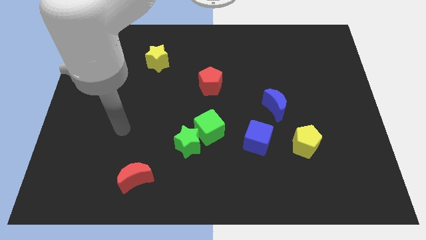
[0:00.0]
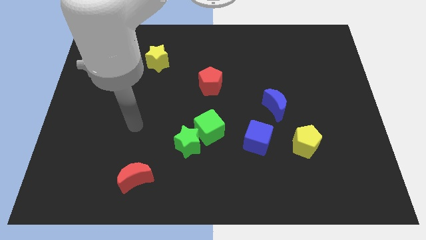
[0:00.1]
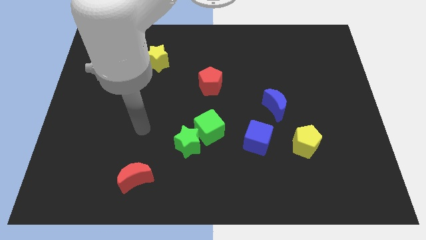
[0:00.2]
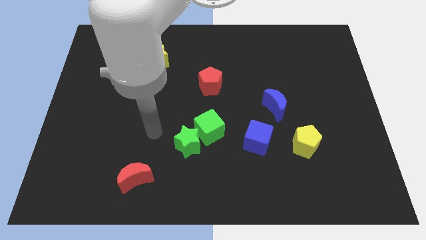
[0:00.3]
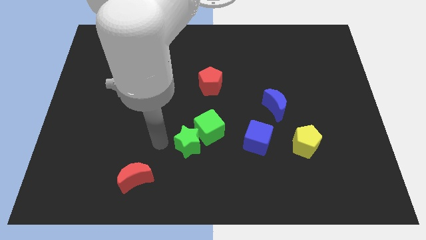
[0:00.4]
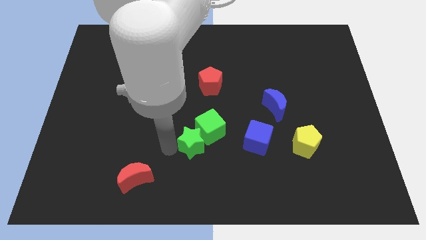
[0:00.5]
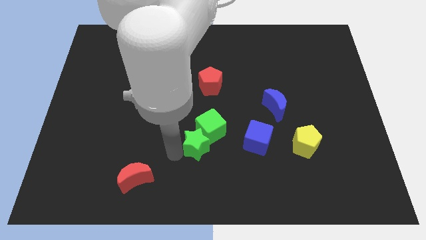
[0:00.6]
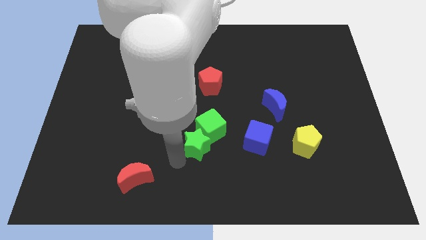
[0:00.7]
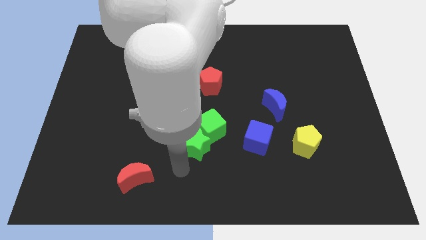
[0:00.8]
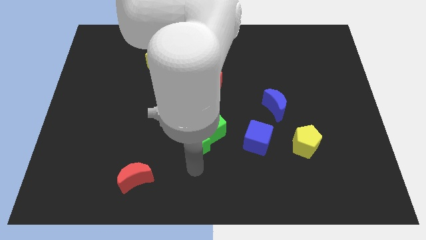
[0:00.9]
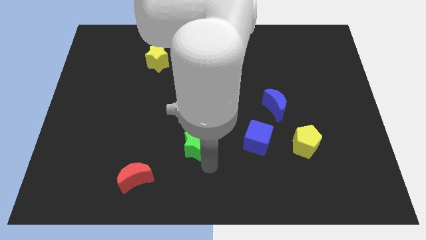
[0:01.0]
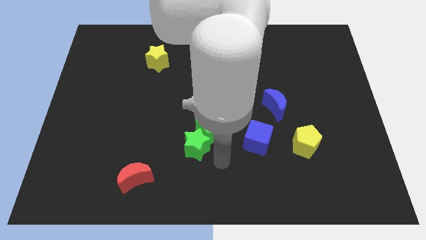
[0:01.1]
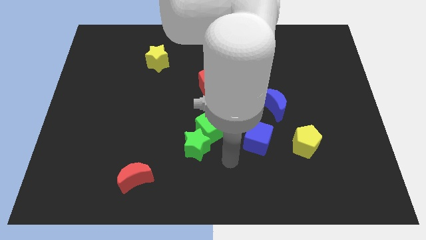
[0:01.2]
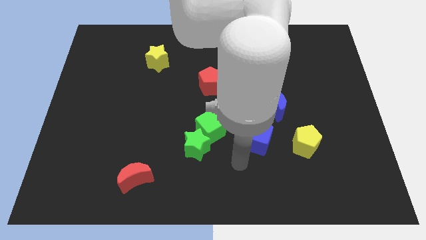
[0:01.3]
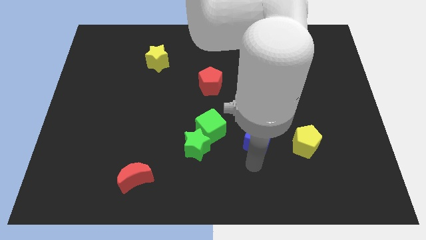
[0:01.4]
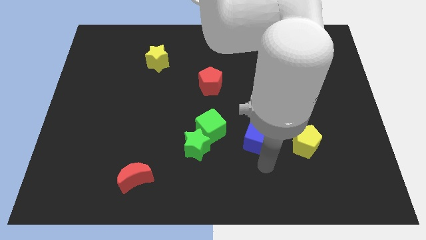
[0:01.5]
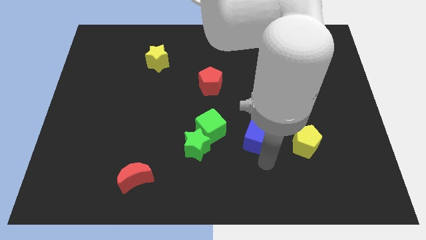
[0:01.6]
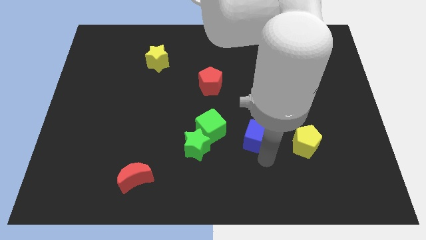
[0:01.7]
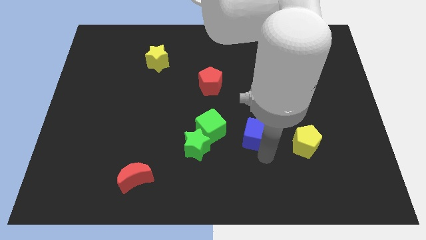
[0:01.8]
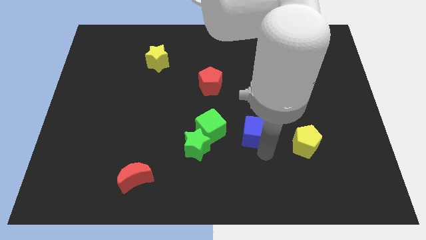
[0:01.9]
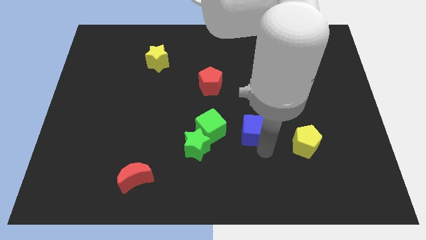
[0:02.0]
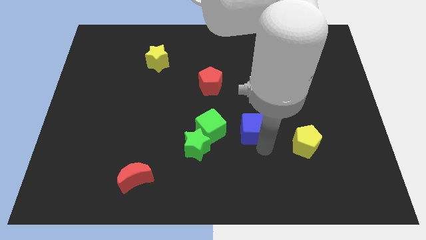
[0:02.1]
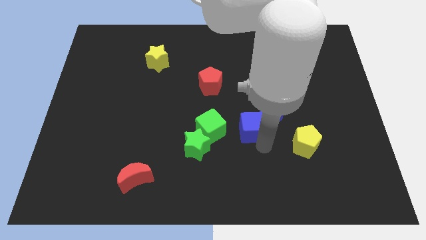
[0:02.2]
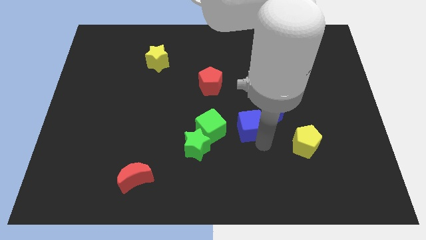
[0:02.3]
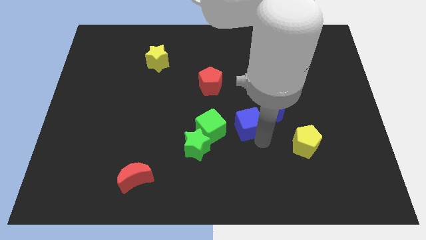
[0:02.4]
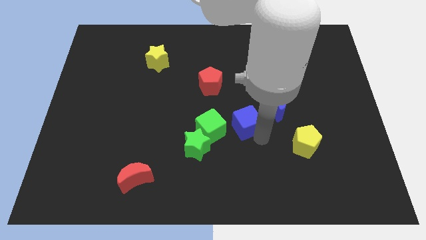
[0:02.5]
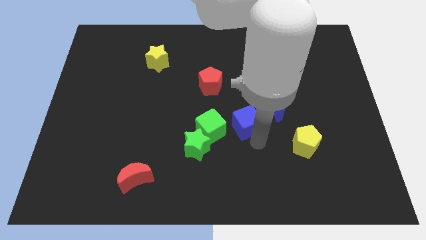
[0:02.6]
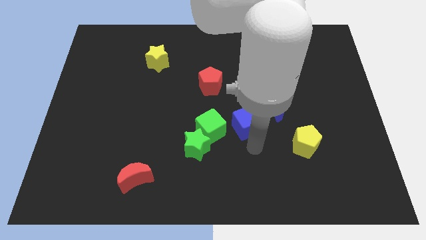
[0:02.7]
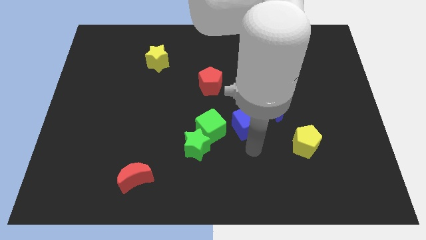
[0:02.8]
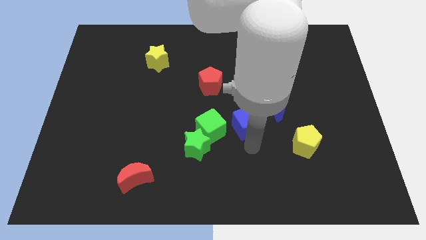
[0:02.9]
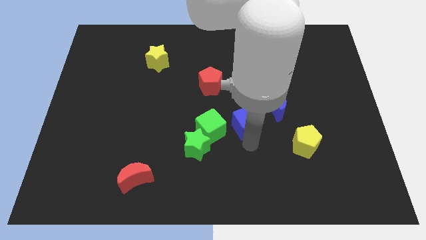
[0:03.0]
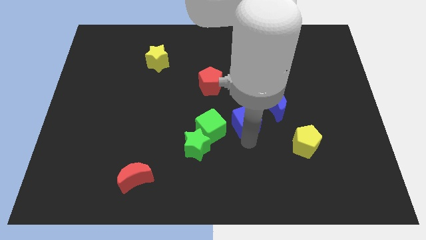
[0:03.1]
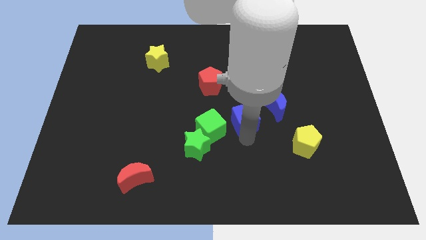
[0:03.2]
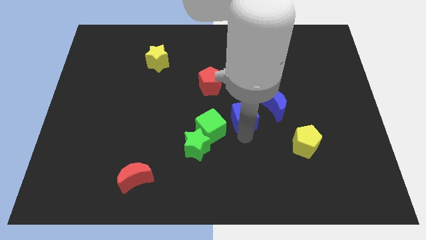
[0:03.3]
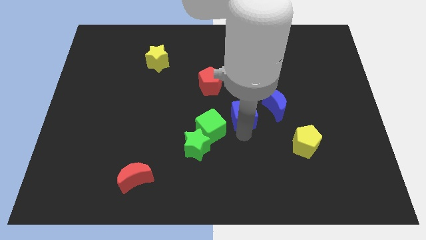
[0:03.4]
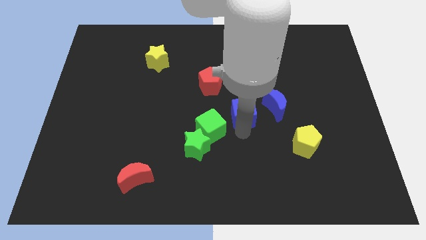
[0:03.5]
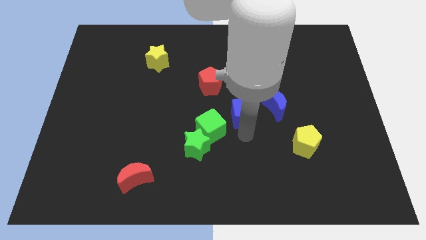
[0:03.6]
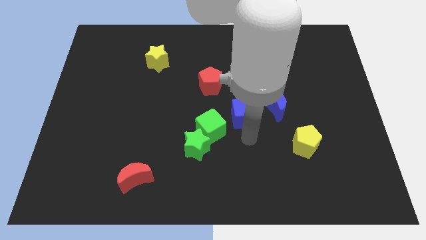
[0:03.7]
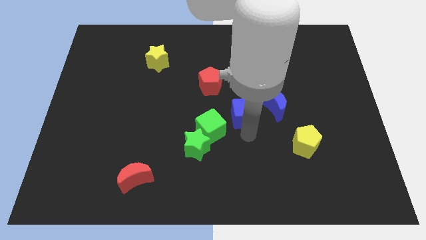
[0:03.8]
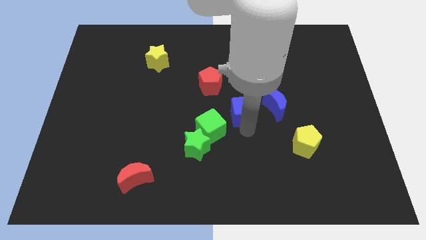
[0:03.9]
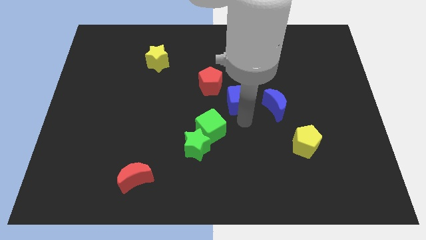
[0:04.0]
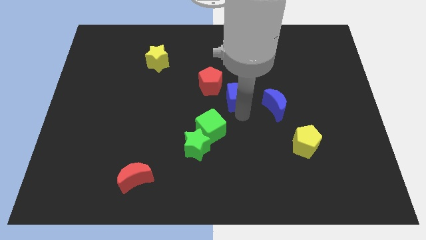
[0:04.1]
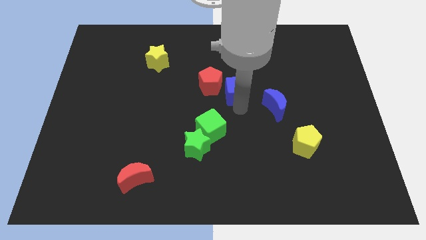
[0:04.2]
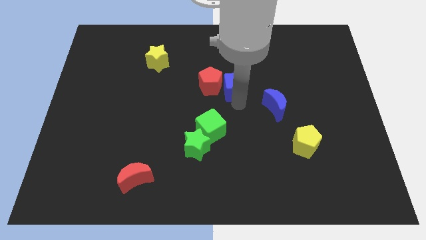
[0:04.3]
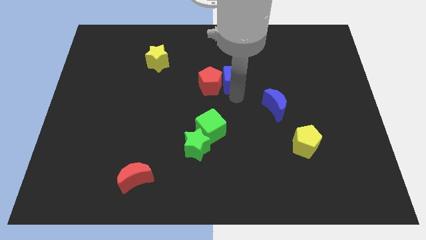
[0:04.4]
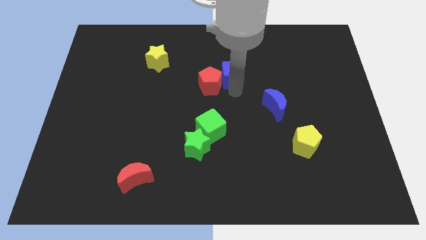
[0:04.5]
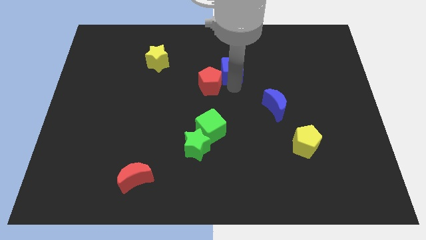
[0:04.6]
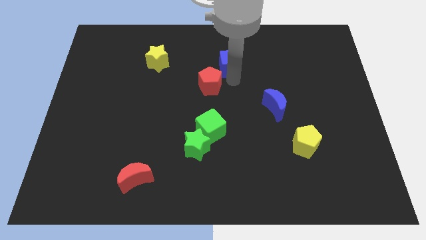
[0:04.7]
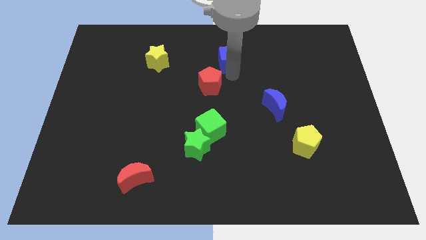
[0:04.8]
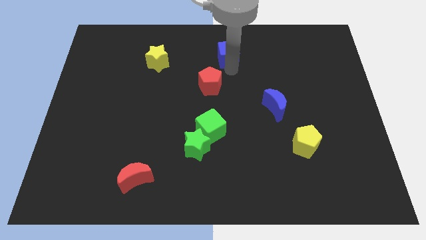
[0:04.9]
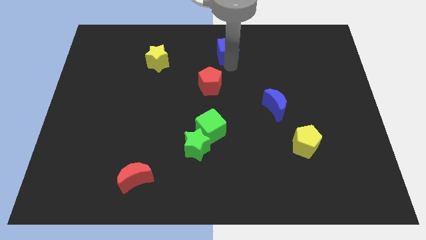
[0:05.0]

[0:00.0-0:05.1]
slide the blue cube to the towards your base

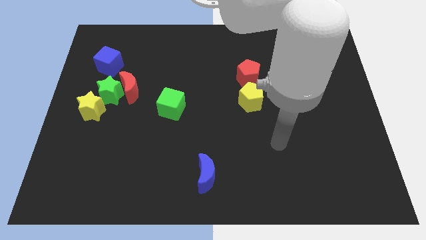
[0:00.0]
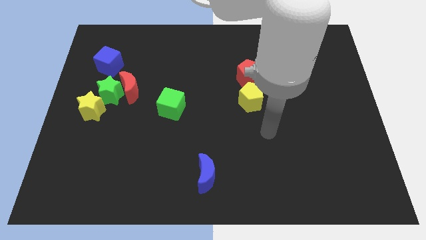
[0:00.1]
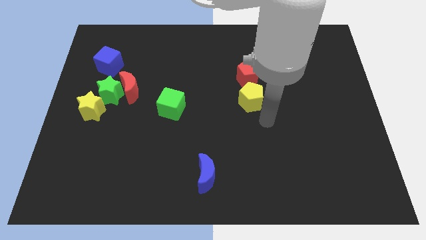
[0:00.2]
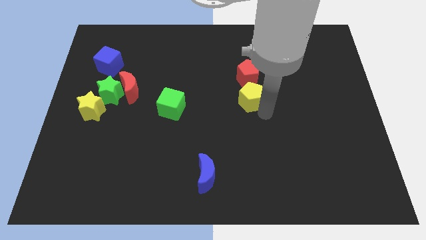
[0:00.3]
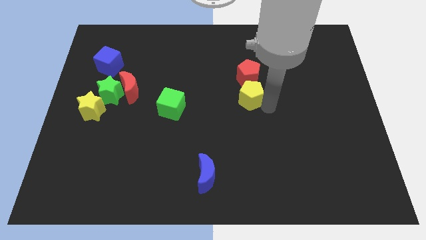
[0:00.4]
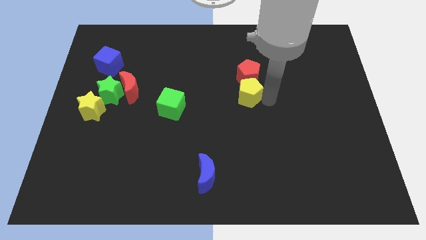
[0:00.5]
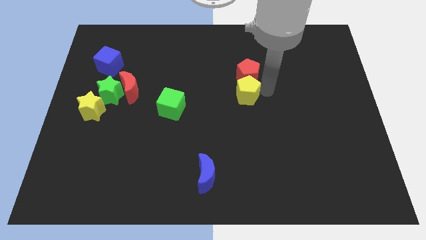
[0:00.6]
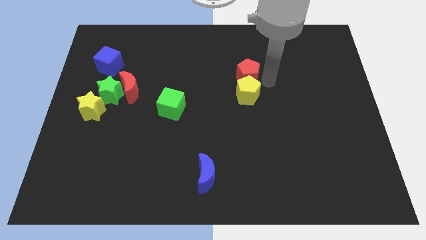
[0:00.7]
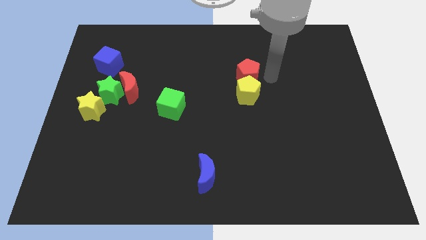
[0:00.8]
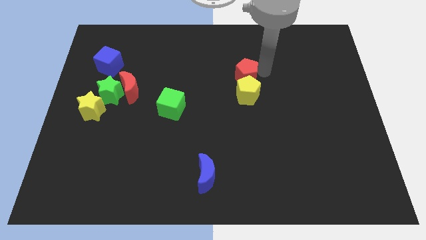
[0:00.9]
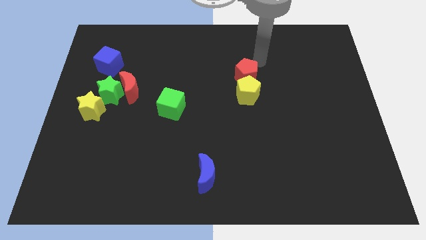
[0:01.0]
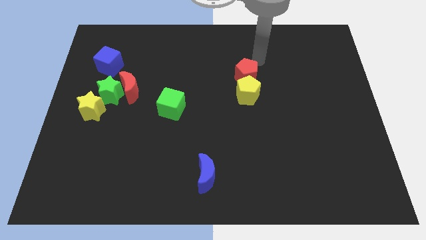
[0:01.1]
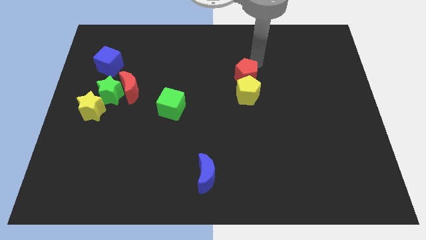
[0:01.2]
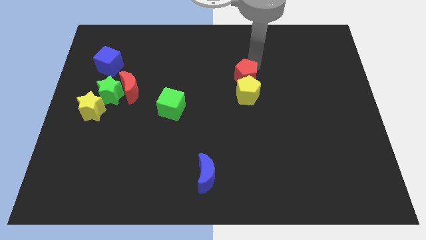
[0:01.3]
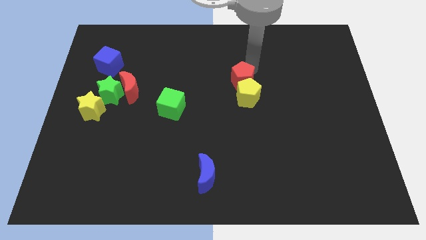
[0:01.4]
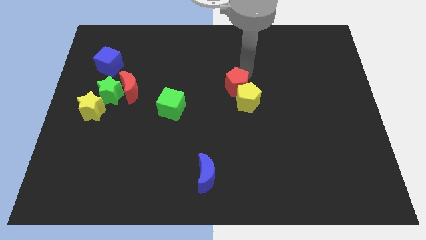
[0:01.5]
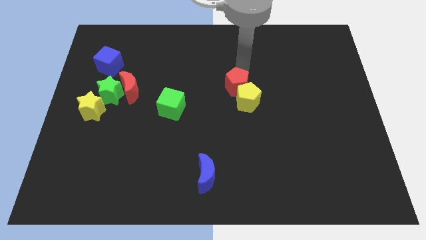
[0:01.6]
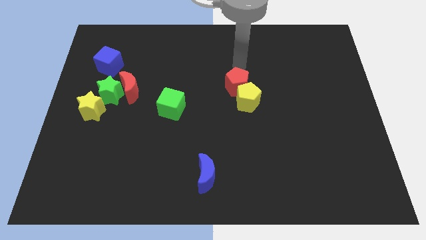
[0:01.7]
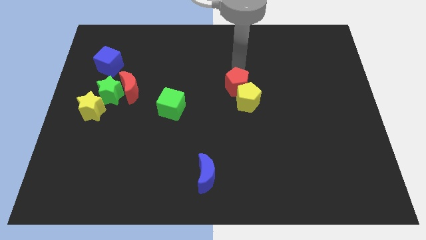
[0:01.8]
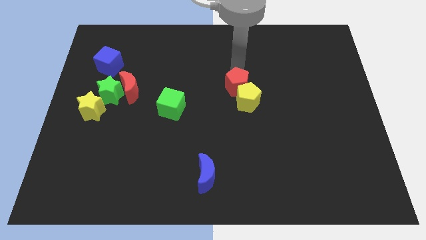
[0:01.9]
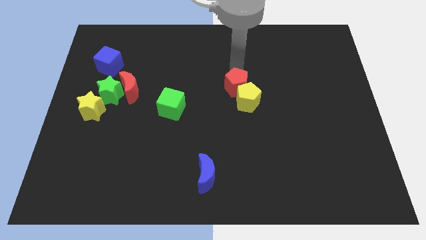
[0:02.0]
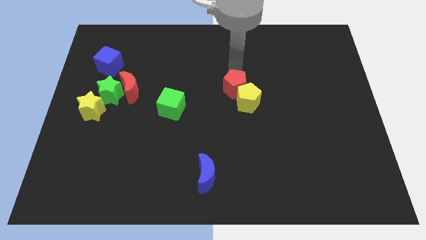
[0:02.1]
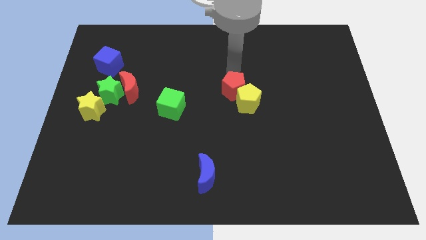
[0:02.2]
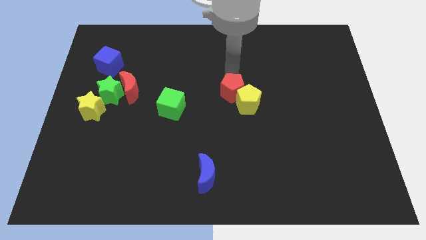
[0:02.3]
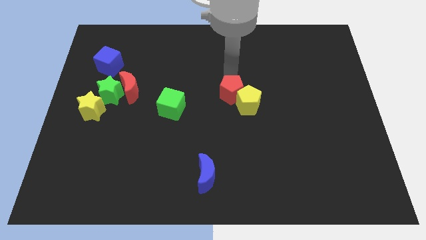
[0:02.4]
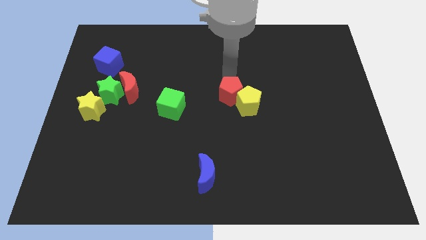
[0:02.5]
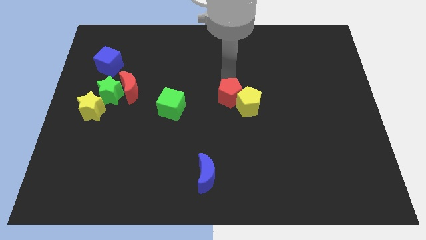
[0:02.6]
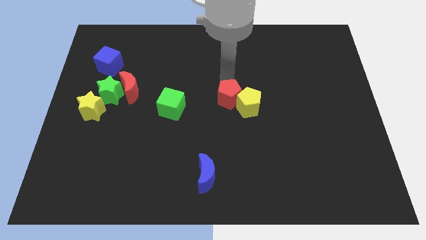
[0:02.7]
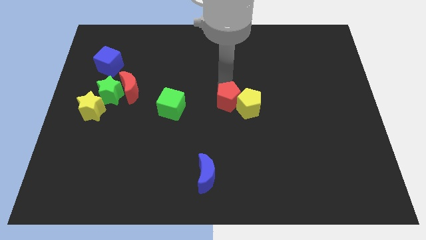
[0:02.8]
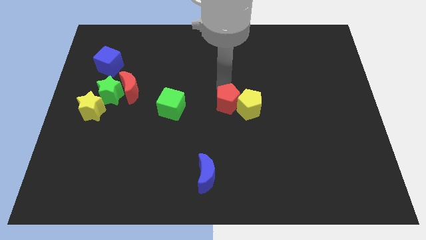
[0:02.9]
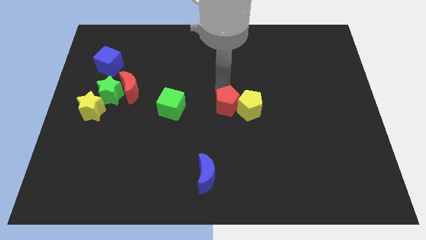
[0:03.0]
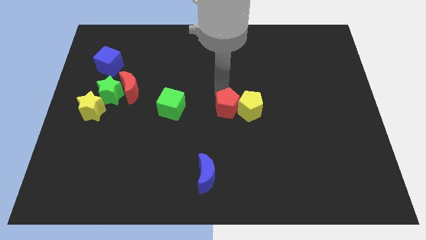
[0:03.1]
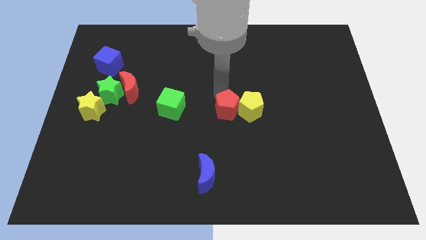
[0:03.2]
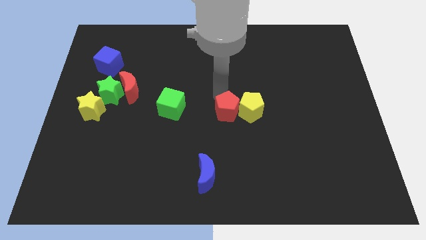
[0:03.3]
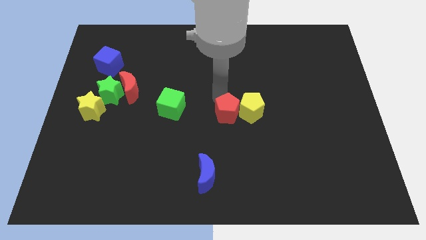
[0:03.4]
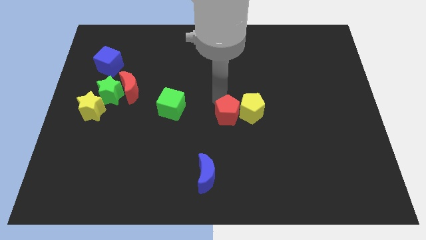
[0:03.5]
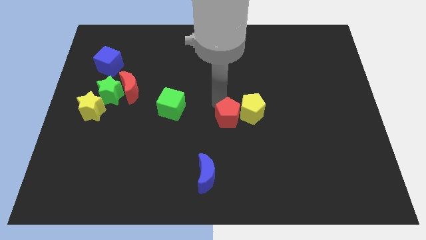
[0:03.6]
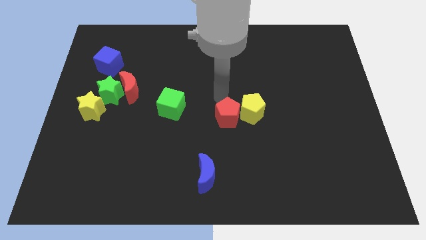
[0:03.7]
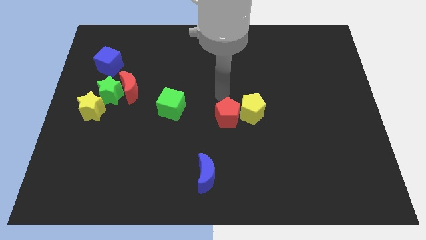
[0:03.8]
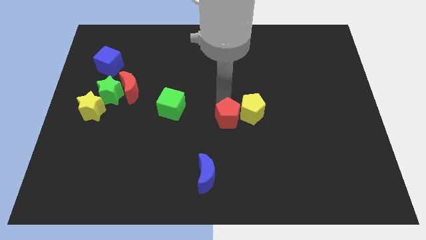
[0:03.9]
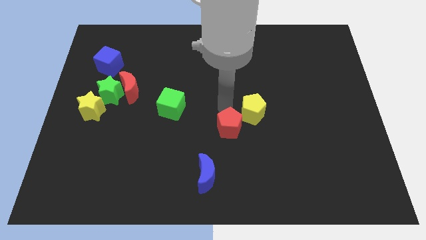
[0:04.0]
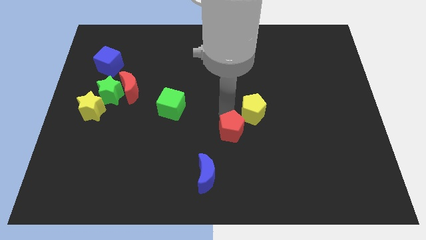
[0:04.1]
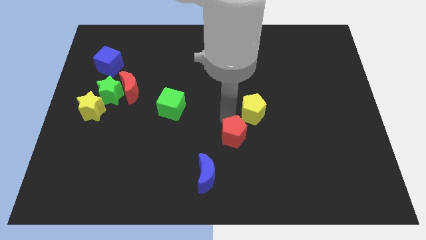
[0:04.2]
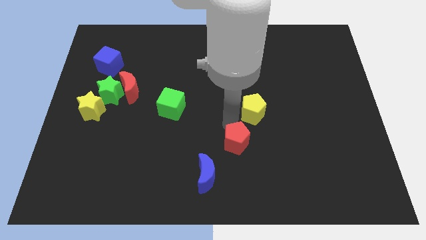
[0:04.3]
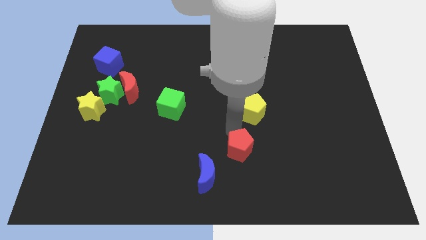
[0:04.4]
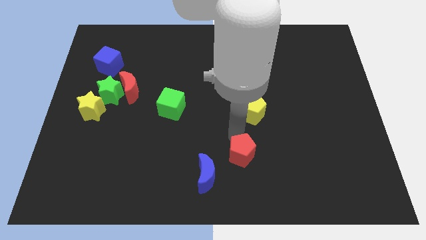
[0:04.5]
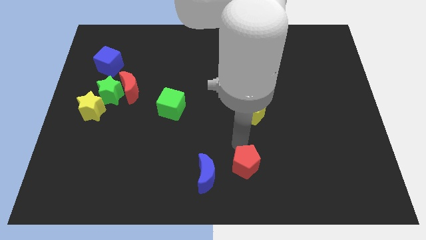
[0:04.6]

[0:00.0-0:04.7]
move the red pentagon to the bottom side
